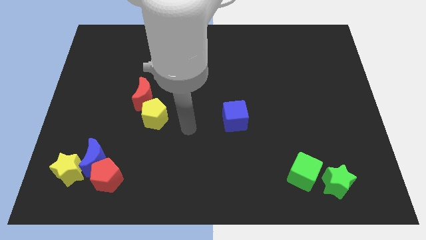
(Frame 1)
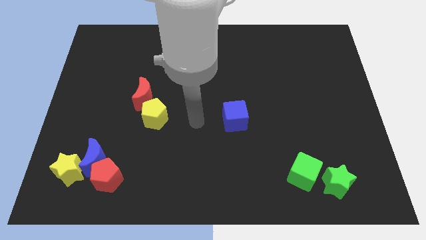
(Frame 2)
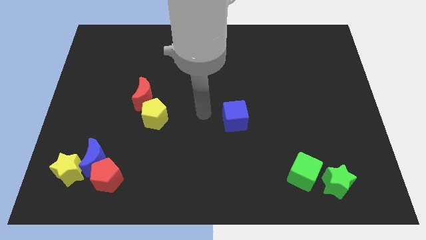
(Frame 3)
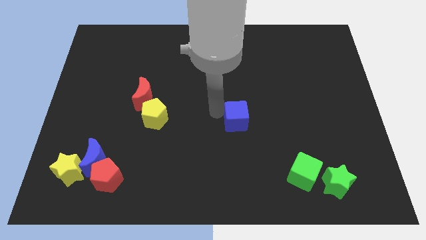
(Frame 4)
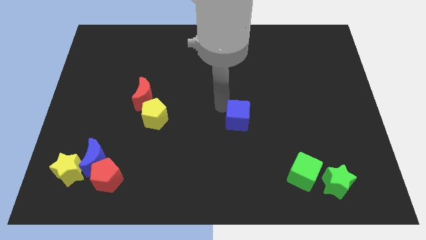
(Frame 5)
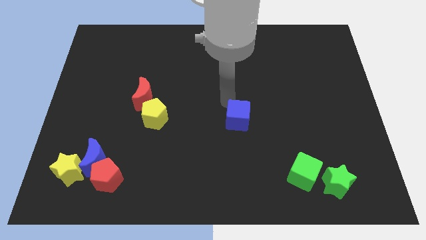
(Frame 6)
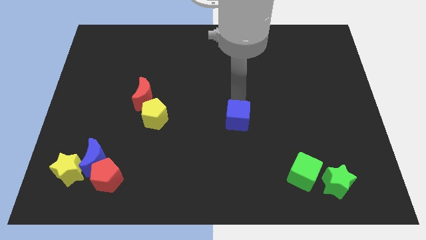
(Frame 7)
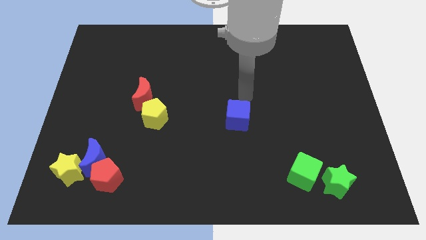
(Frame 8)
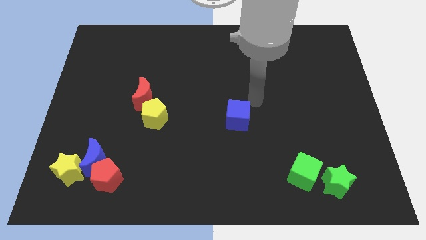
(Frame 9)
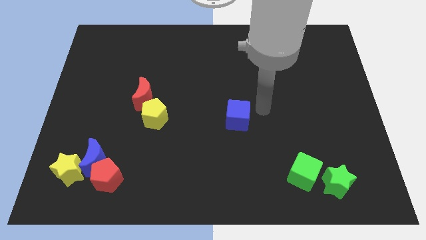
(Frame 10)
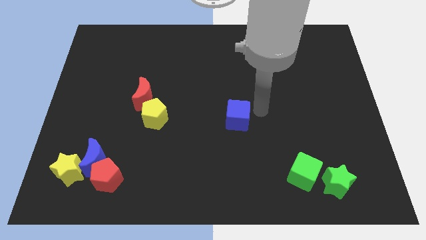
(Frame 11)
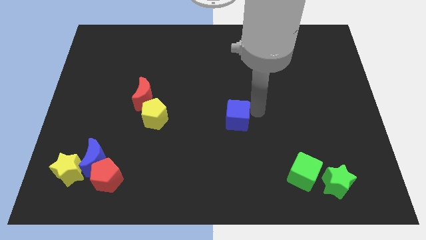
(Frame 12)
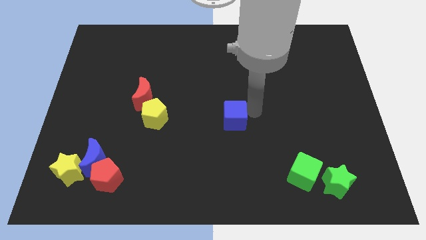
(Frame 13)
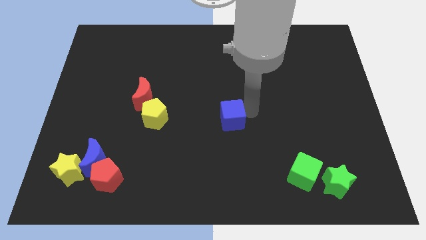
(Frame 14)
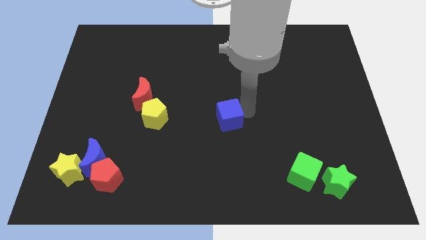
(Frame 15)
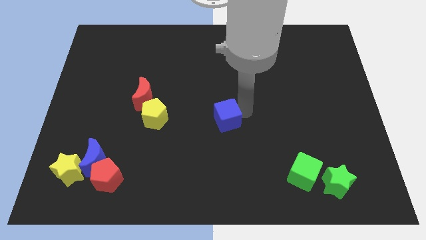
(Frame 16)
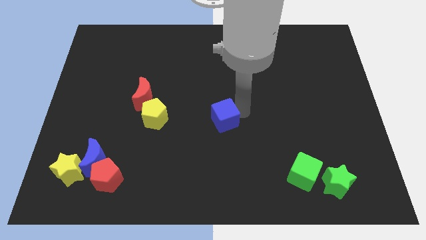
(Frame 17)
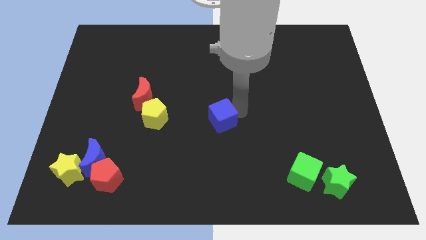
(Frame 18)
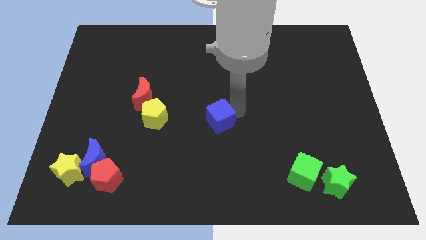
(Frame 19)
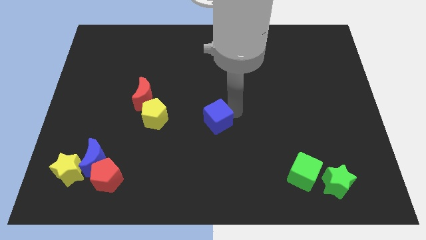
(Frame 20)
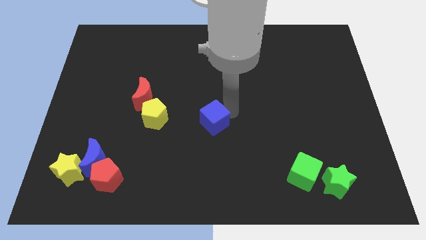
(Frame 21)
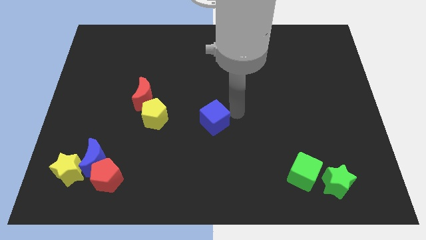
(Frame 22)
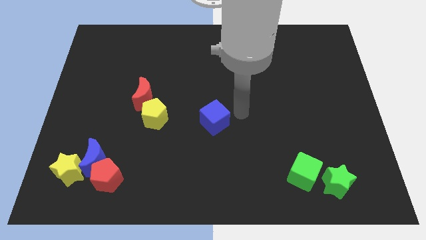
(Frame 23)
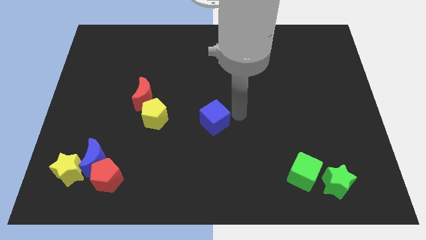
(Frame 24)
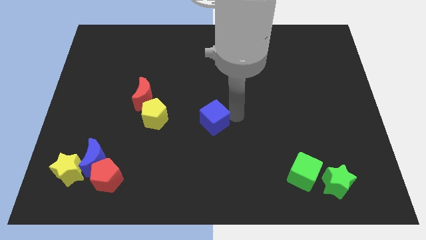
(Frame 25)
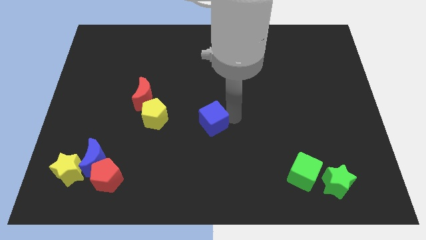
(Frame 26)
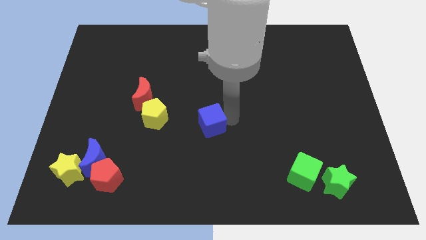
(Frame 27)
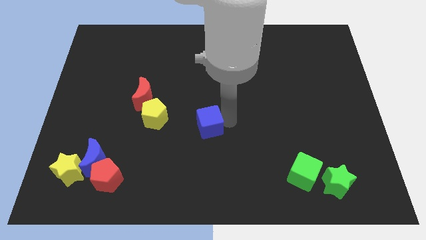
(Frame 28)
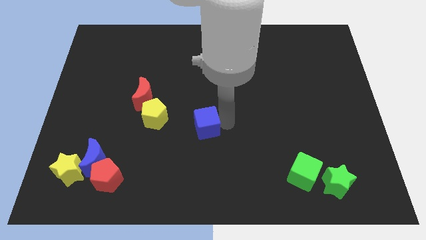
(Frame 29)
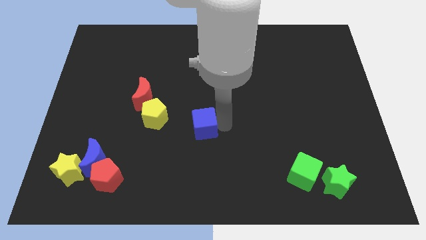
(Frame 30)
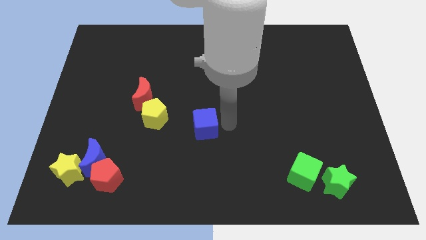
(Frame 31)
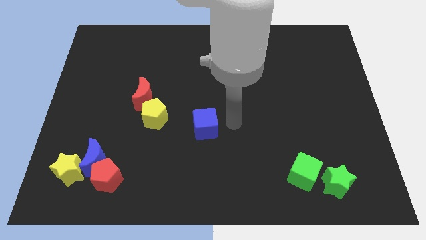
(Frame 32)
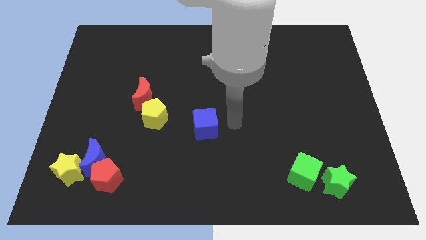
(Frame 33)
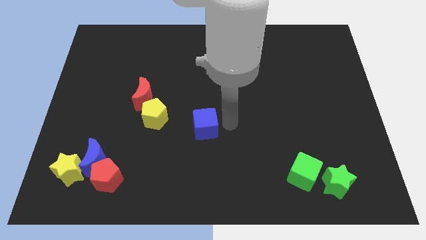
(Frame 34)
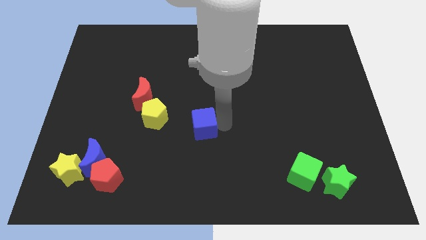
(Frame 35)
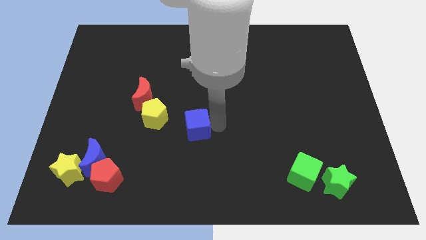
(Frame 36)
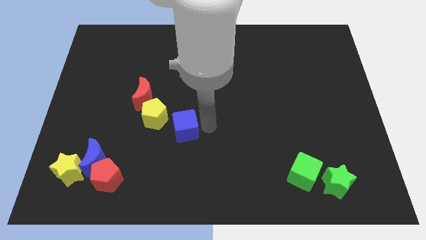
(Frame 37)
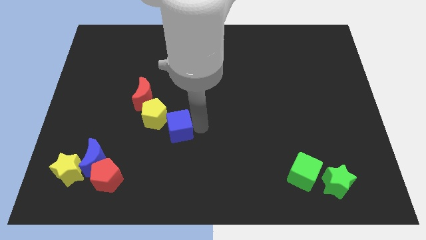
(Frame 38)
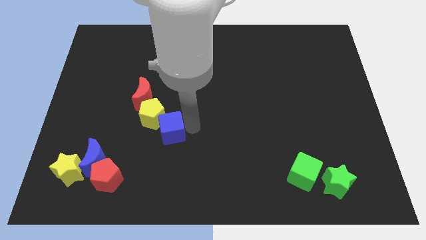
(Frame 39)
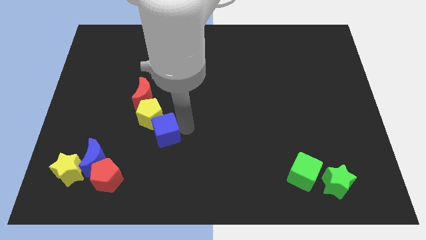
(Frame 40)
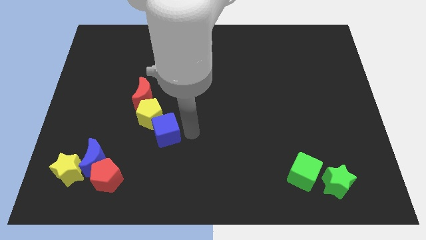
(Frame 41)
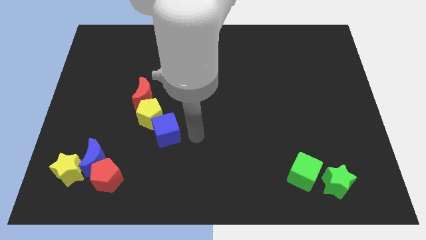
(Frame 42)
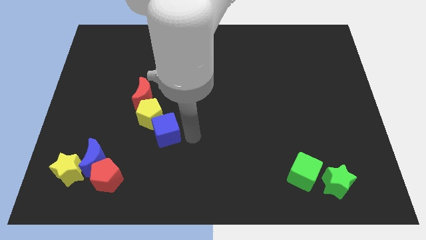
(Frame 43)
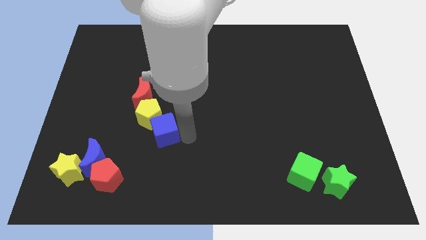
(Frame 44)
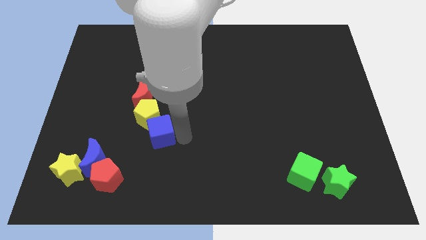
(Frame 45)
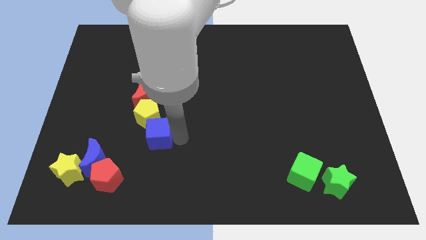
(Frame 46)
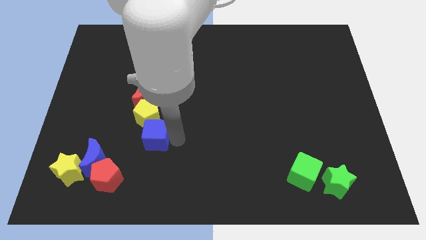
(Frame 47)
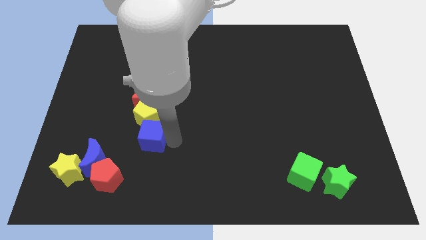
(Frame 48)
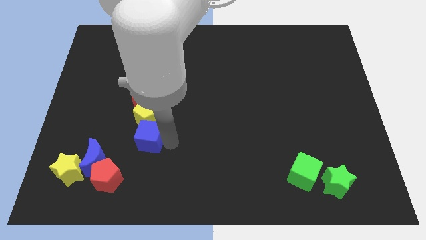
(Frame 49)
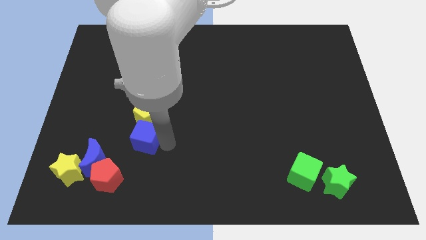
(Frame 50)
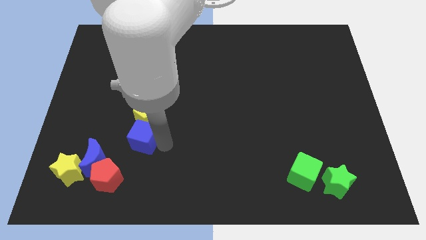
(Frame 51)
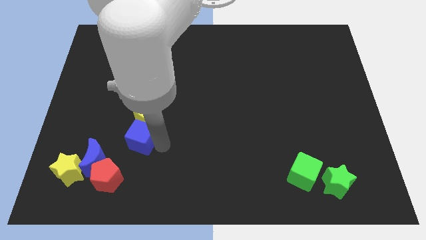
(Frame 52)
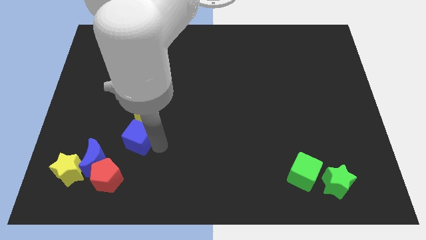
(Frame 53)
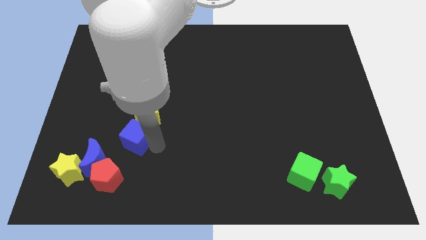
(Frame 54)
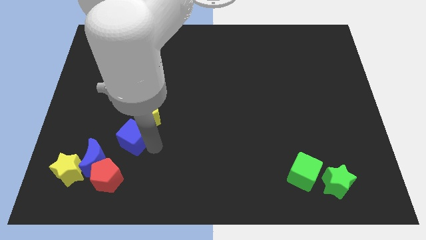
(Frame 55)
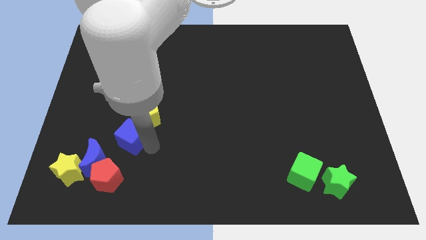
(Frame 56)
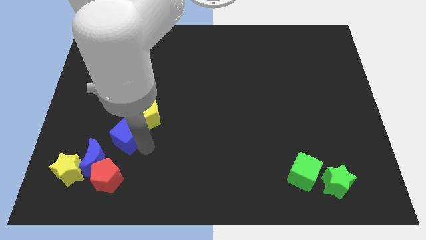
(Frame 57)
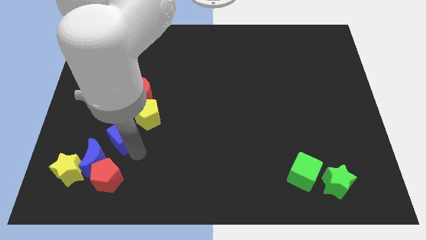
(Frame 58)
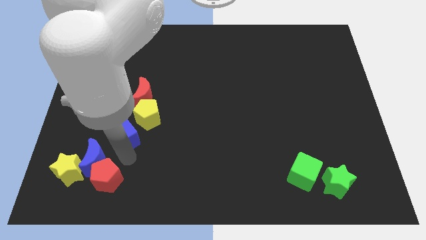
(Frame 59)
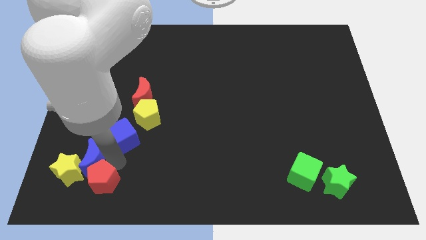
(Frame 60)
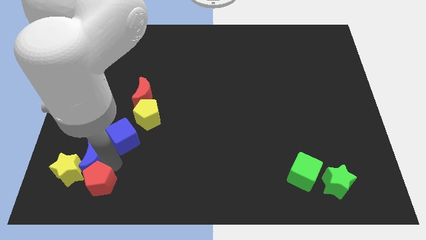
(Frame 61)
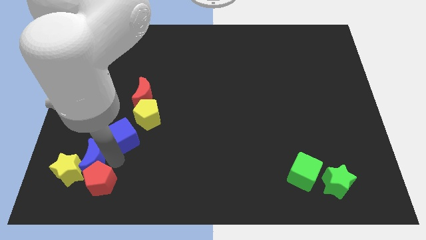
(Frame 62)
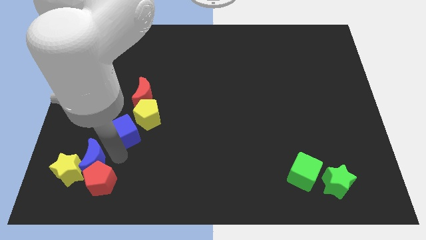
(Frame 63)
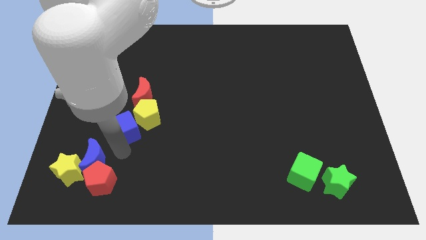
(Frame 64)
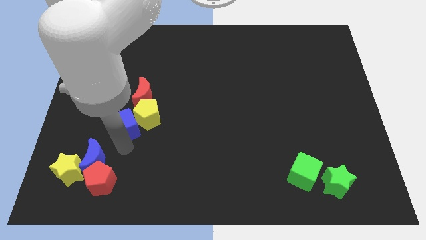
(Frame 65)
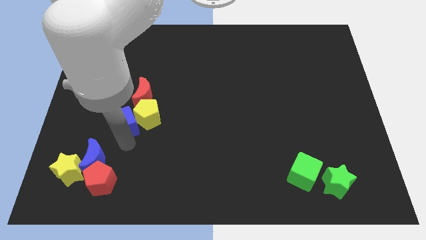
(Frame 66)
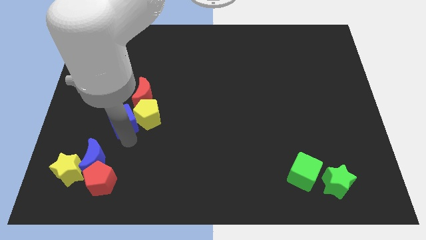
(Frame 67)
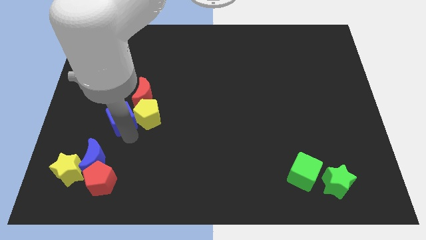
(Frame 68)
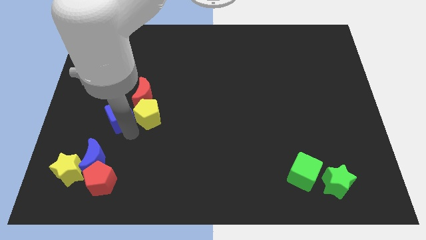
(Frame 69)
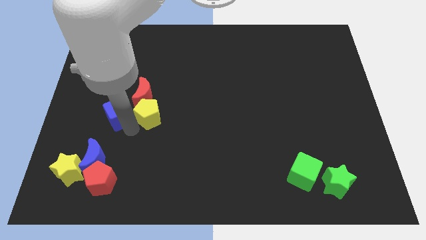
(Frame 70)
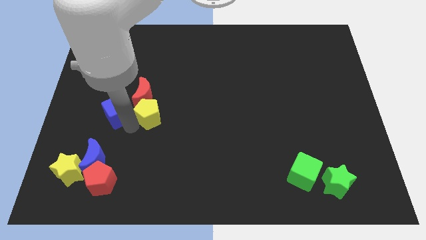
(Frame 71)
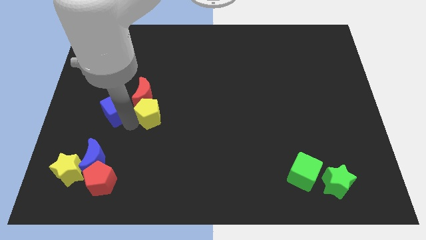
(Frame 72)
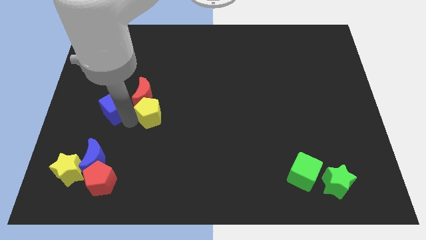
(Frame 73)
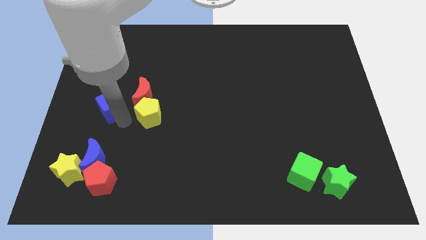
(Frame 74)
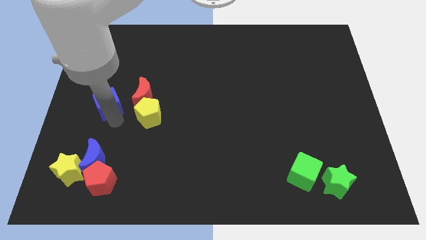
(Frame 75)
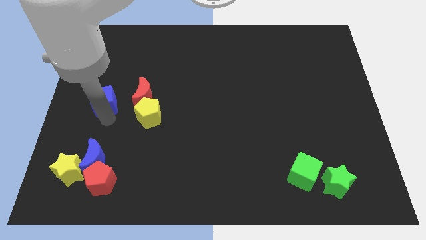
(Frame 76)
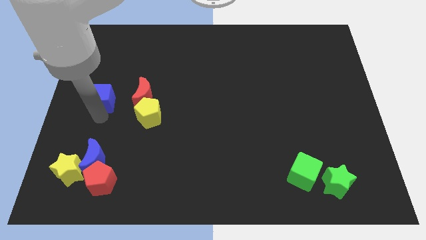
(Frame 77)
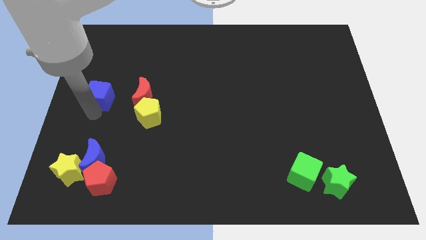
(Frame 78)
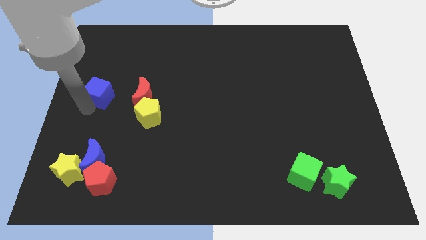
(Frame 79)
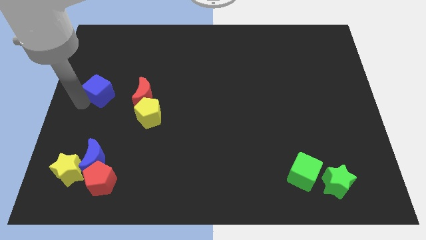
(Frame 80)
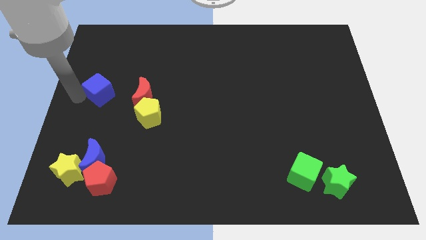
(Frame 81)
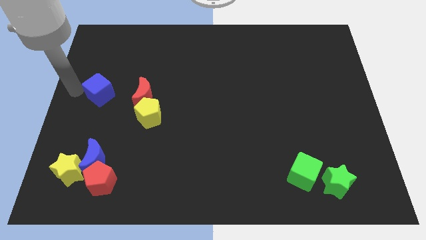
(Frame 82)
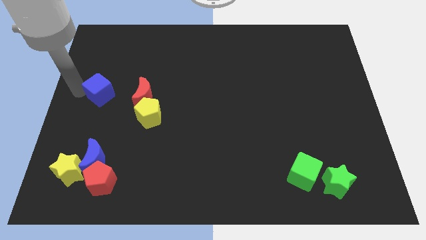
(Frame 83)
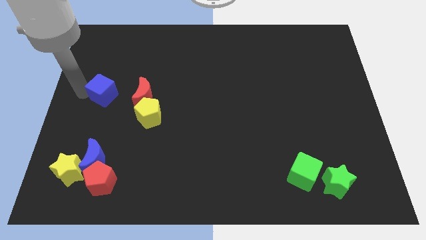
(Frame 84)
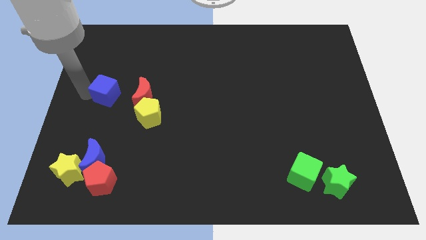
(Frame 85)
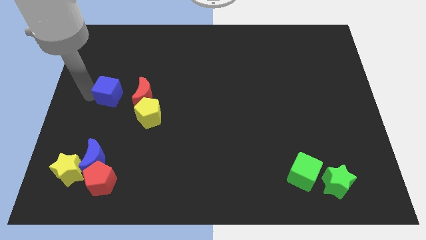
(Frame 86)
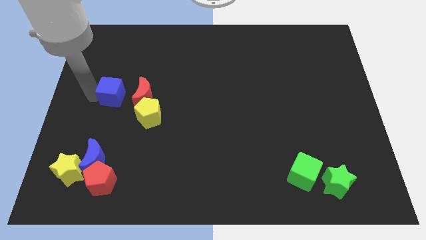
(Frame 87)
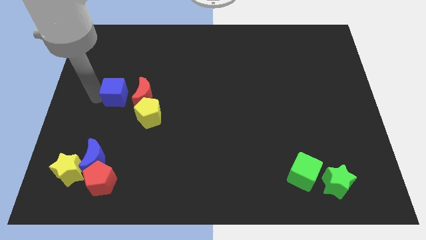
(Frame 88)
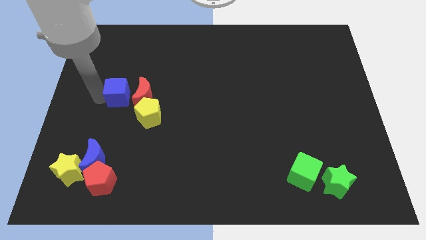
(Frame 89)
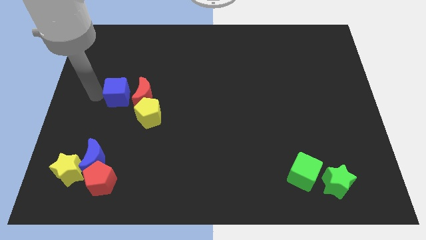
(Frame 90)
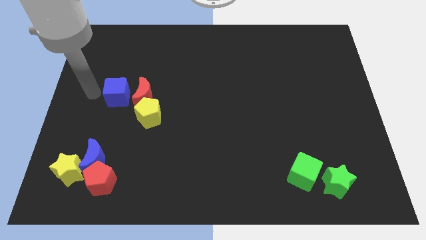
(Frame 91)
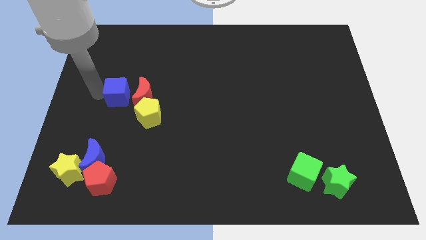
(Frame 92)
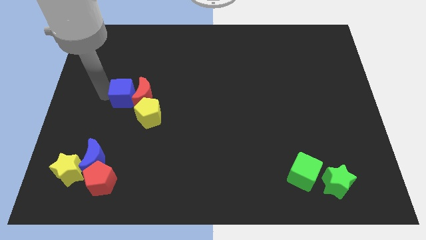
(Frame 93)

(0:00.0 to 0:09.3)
put the blue cube next to the red moon
